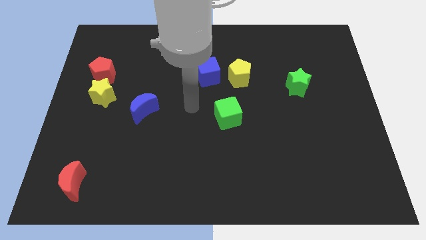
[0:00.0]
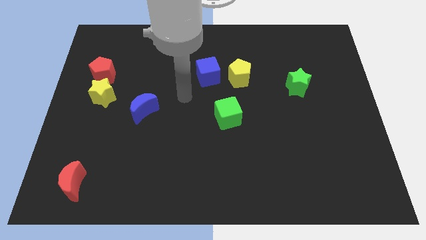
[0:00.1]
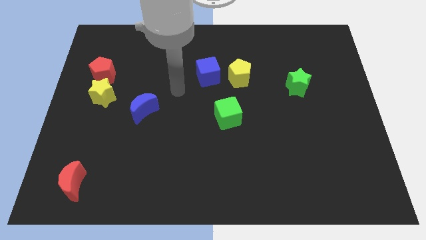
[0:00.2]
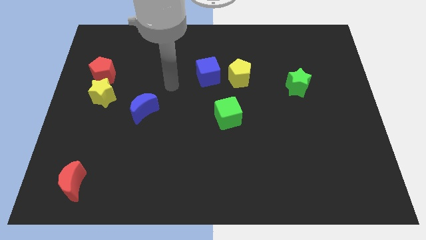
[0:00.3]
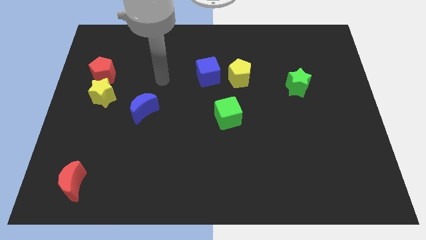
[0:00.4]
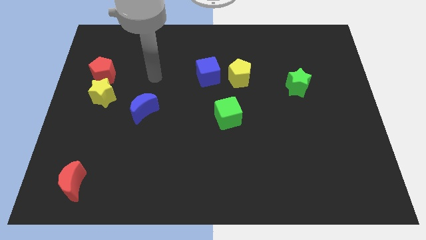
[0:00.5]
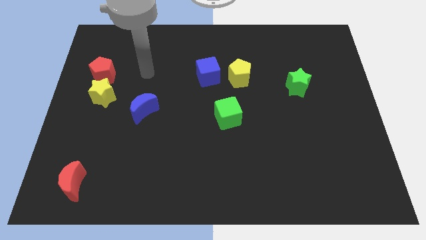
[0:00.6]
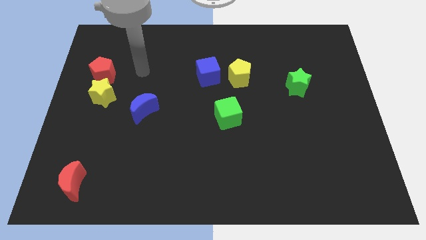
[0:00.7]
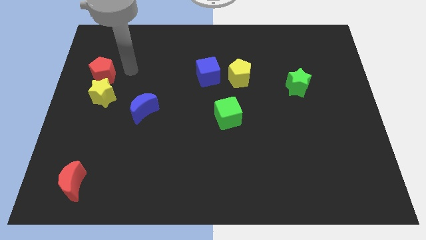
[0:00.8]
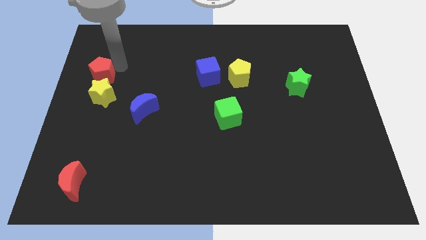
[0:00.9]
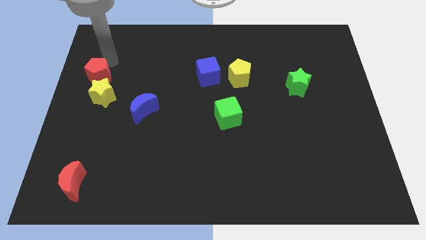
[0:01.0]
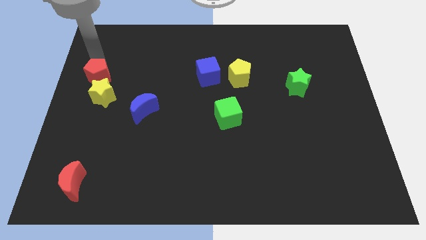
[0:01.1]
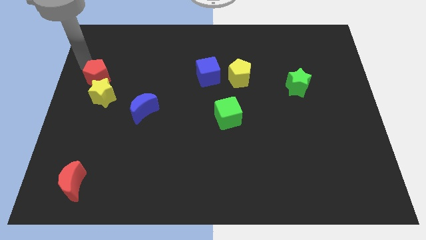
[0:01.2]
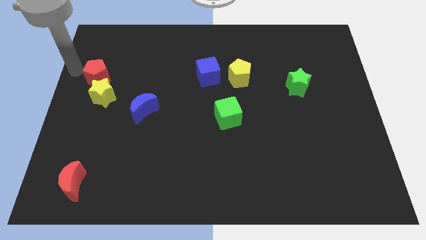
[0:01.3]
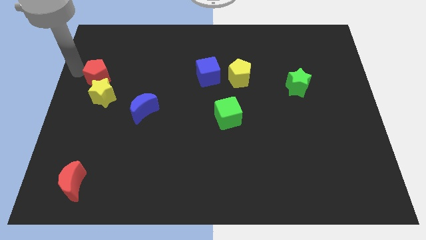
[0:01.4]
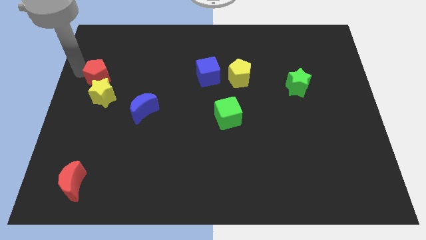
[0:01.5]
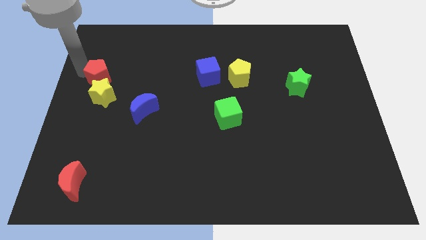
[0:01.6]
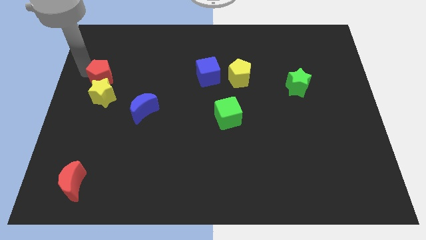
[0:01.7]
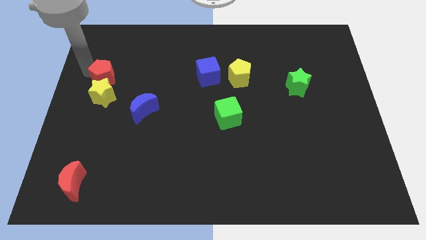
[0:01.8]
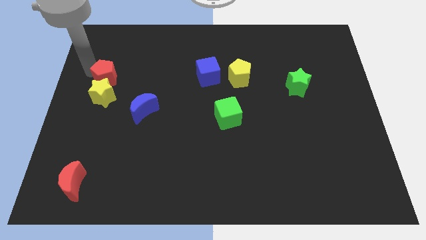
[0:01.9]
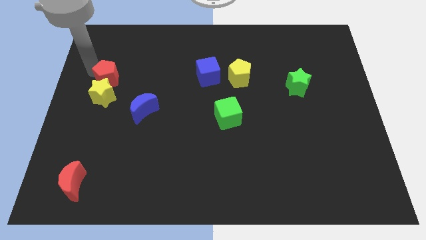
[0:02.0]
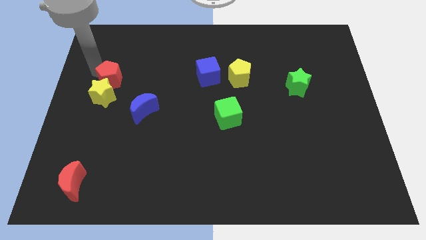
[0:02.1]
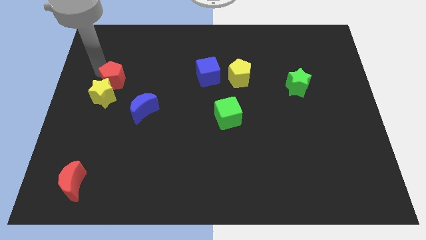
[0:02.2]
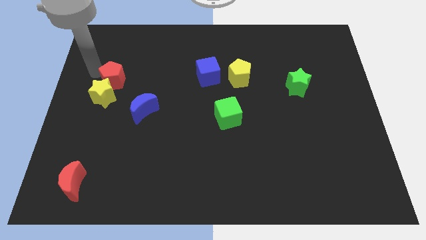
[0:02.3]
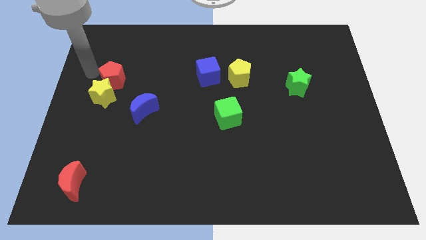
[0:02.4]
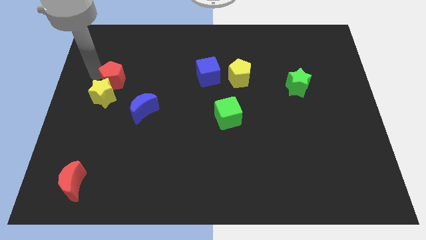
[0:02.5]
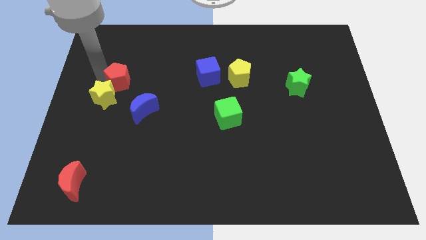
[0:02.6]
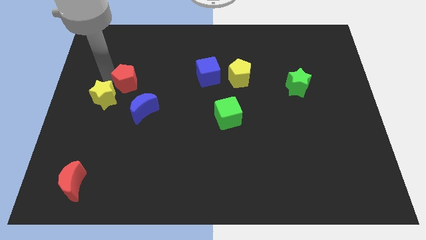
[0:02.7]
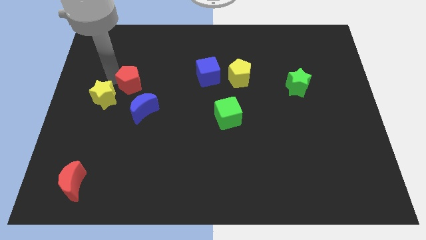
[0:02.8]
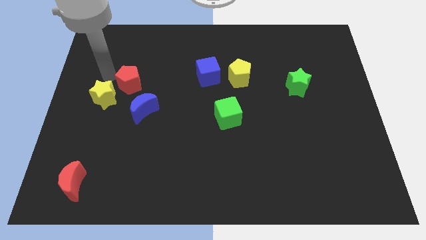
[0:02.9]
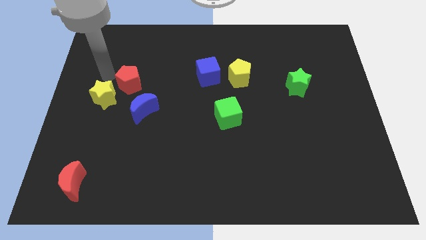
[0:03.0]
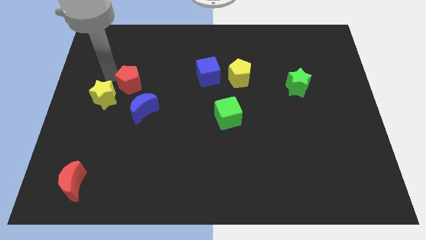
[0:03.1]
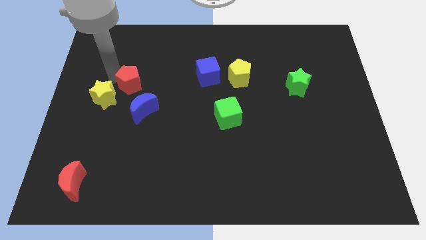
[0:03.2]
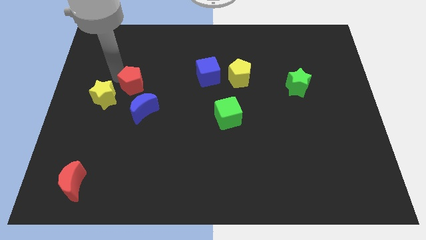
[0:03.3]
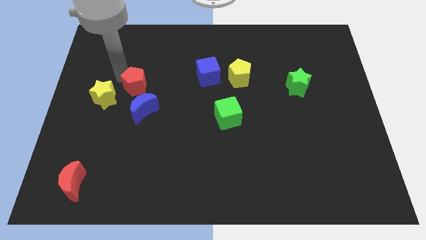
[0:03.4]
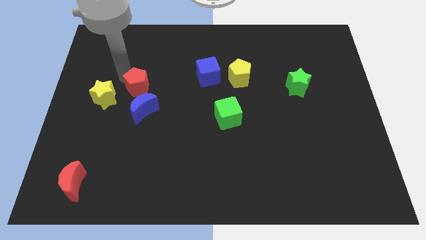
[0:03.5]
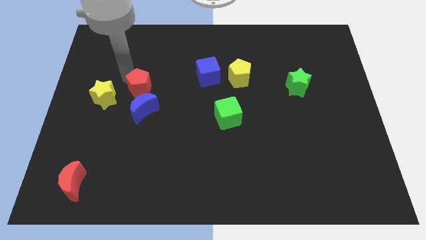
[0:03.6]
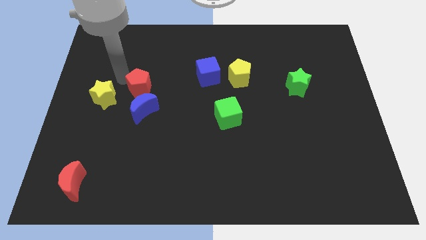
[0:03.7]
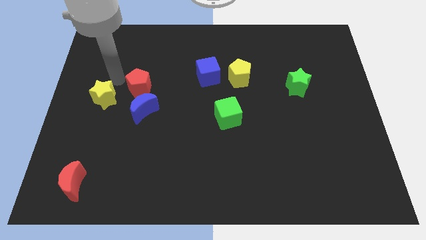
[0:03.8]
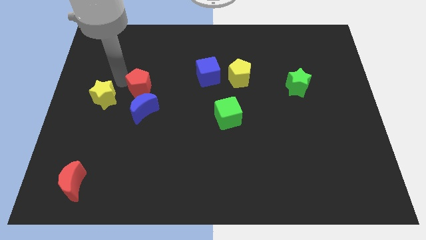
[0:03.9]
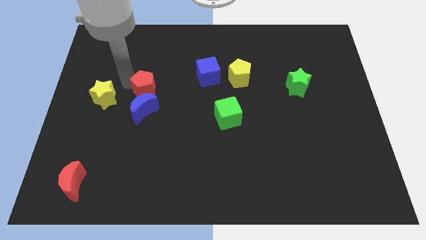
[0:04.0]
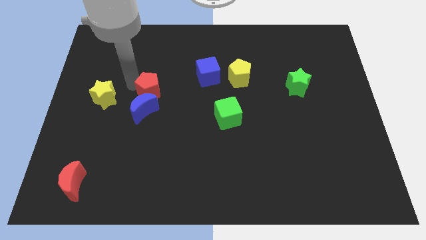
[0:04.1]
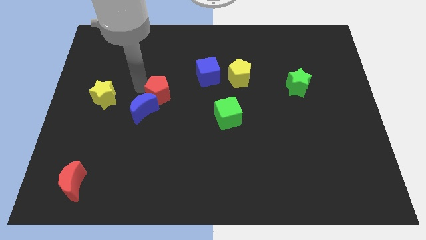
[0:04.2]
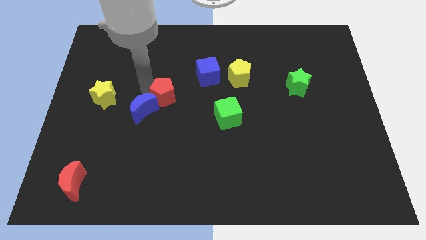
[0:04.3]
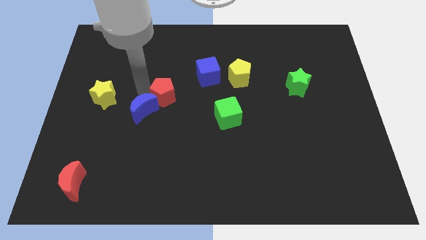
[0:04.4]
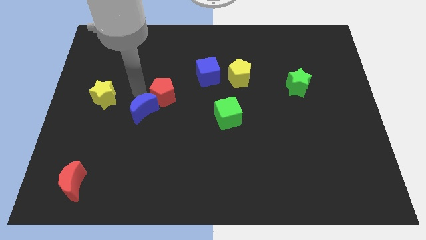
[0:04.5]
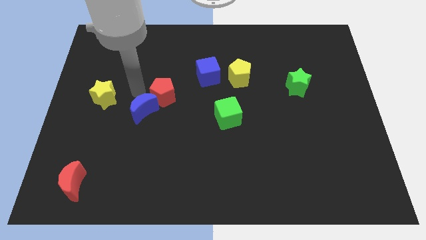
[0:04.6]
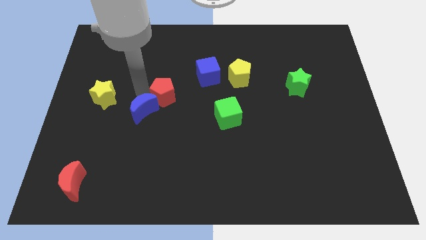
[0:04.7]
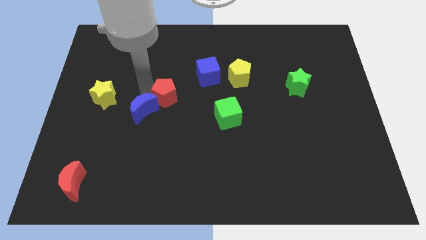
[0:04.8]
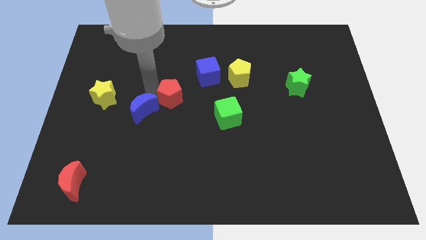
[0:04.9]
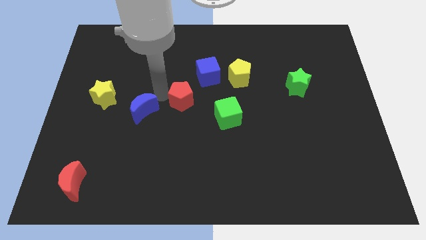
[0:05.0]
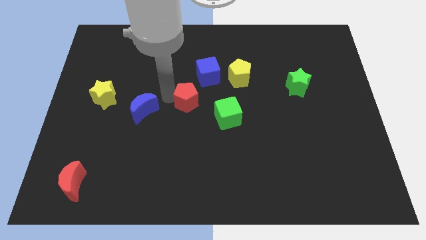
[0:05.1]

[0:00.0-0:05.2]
slide the red pentagon diagonally up and to the left of the green cube

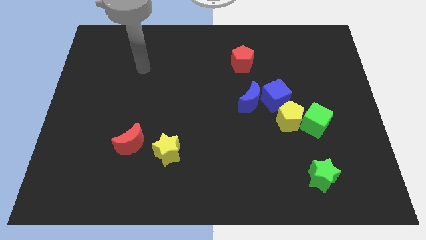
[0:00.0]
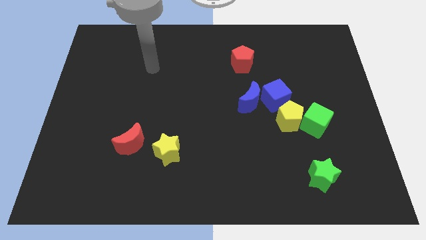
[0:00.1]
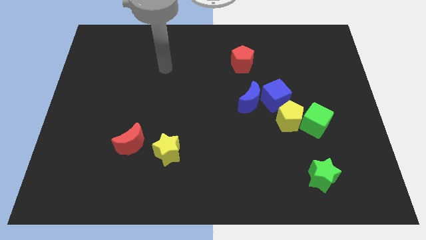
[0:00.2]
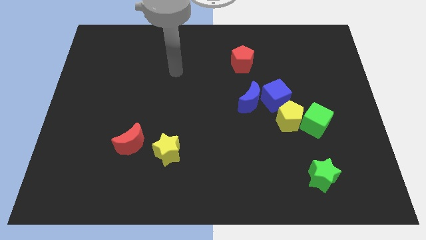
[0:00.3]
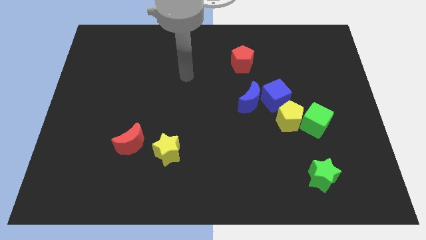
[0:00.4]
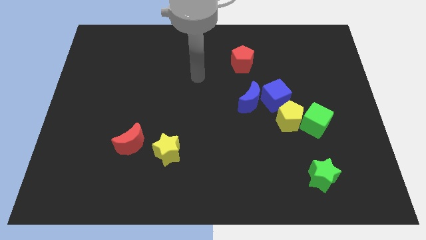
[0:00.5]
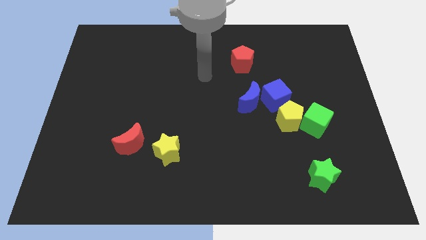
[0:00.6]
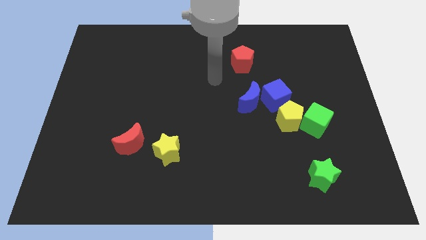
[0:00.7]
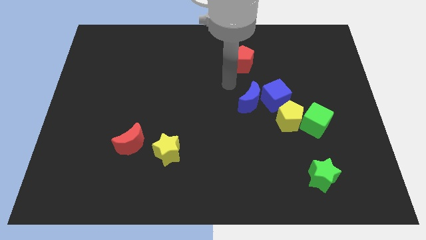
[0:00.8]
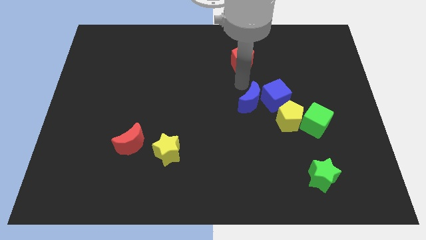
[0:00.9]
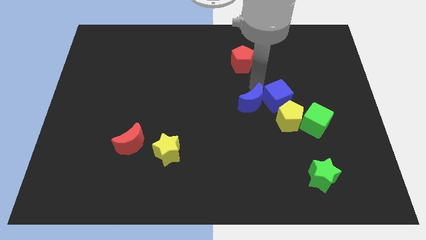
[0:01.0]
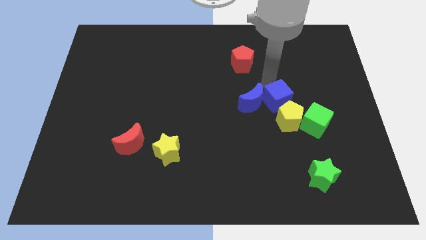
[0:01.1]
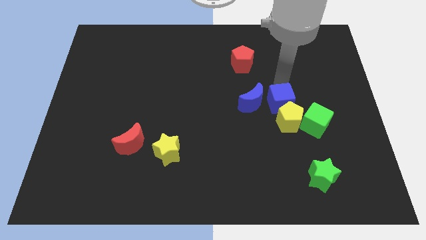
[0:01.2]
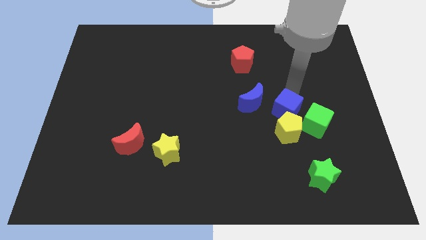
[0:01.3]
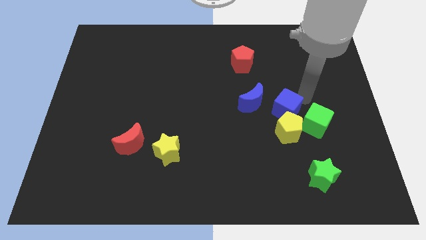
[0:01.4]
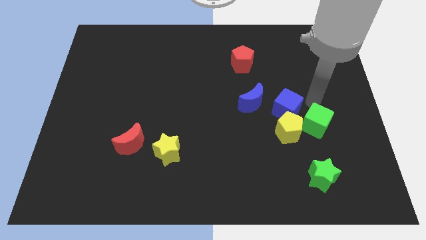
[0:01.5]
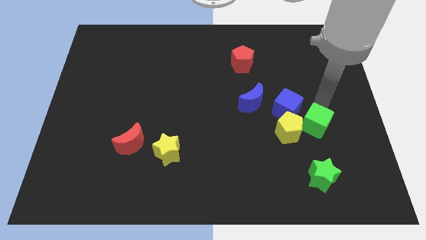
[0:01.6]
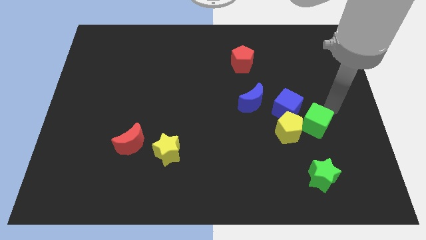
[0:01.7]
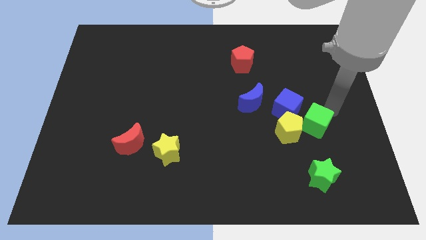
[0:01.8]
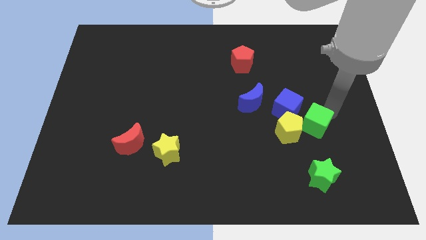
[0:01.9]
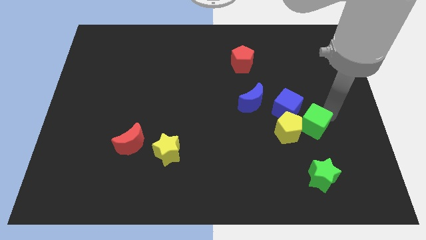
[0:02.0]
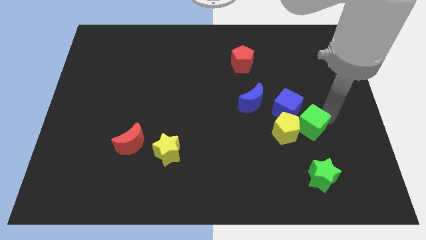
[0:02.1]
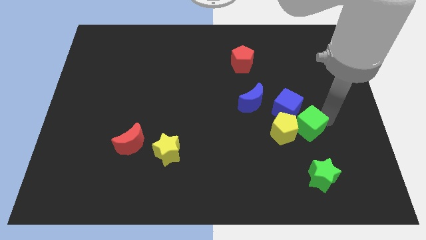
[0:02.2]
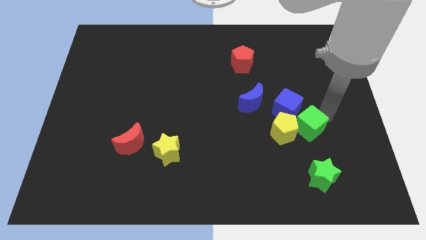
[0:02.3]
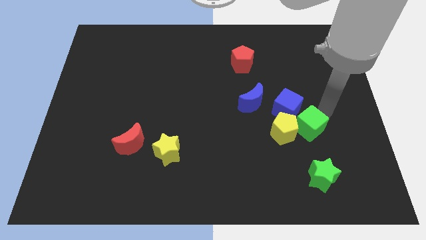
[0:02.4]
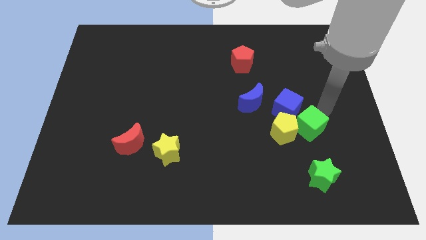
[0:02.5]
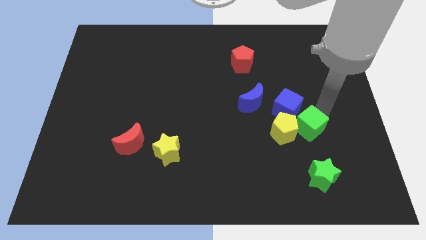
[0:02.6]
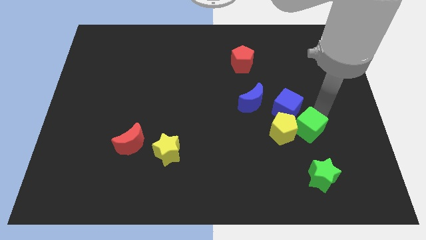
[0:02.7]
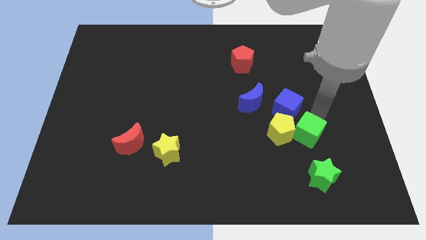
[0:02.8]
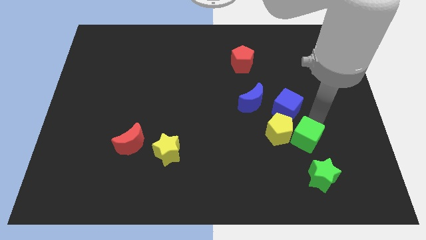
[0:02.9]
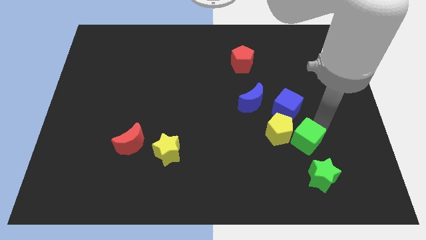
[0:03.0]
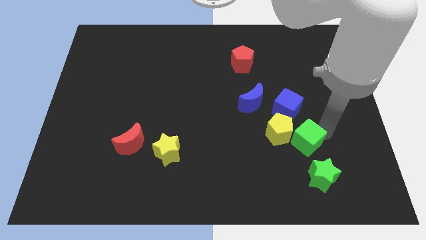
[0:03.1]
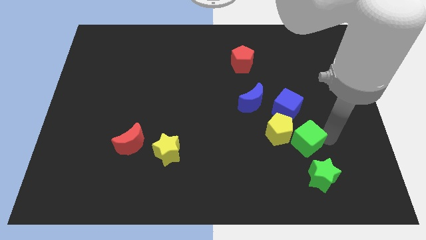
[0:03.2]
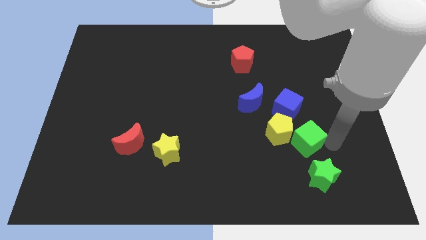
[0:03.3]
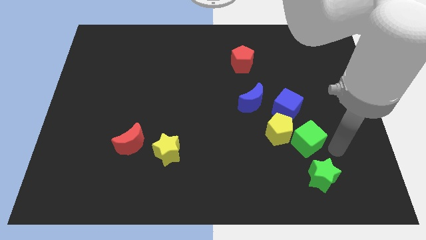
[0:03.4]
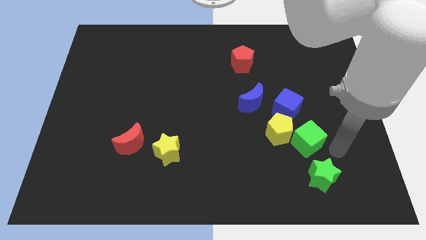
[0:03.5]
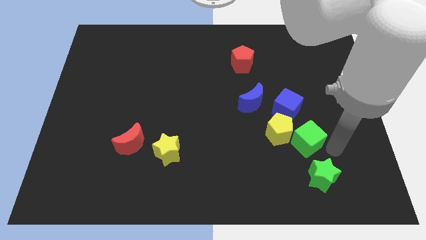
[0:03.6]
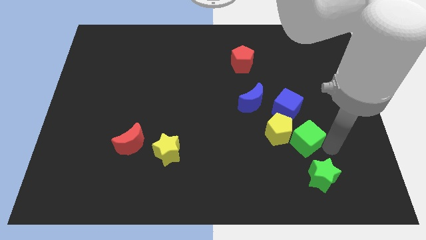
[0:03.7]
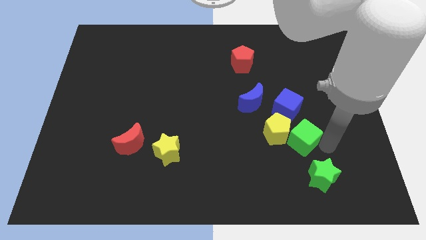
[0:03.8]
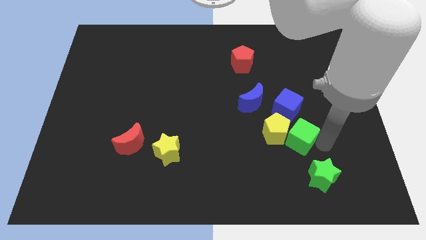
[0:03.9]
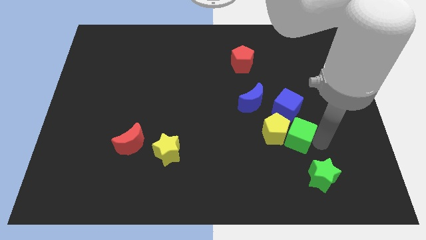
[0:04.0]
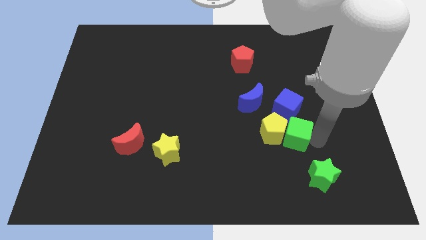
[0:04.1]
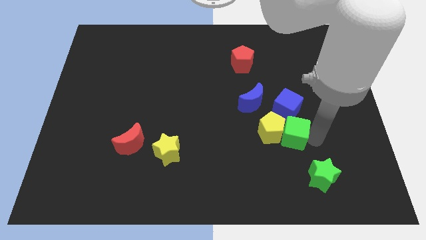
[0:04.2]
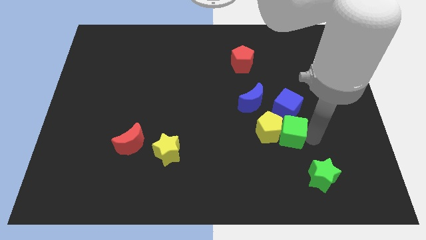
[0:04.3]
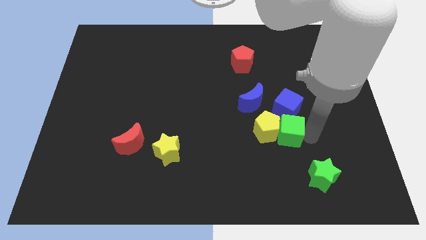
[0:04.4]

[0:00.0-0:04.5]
move the green cube diagonally down and to the left of the blue cube
